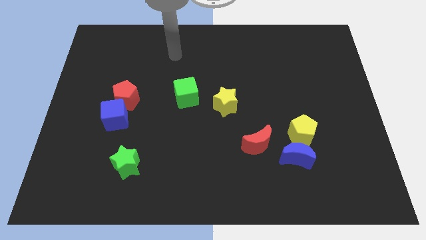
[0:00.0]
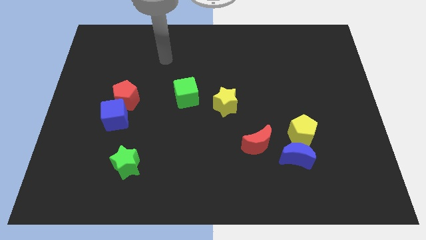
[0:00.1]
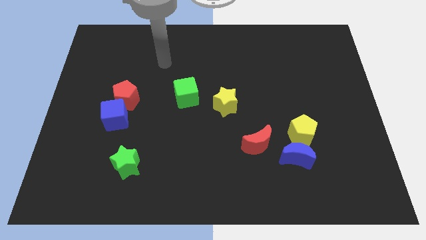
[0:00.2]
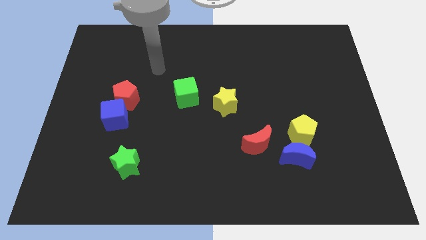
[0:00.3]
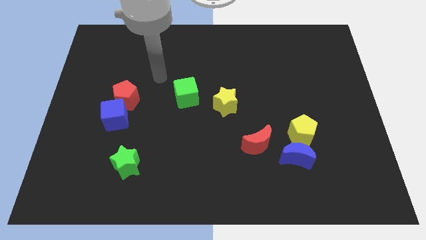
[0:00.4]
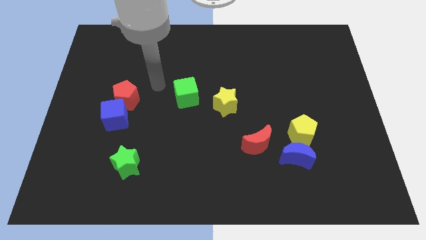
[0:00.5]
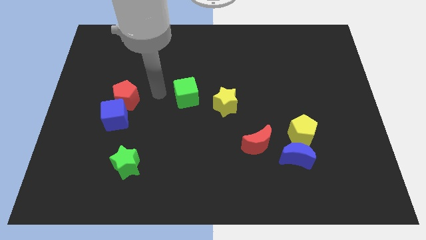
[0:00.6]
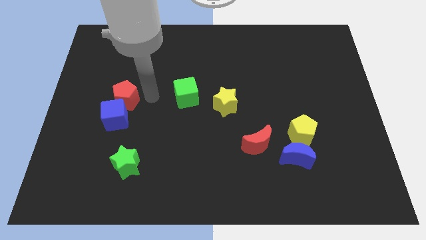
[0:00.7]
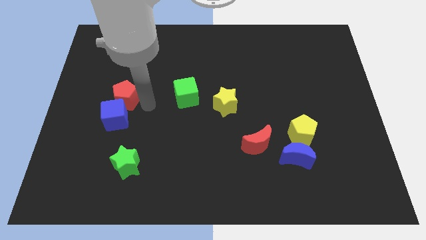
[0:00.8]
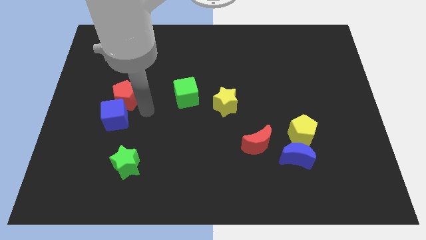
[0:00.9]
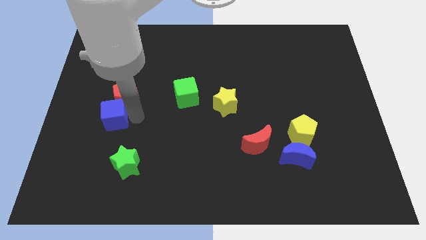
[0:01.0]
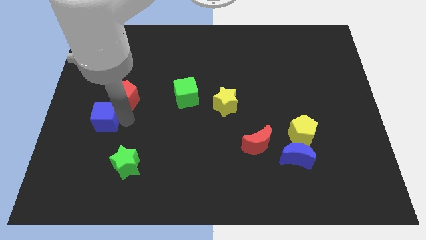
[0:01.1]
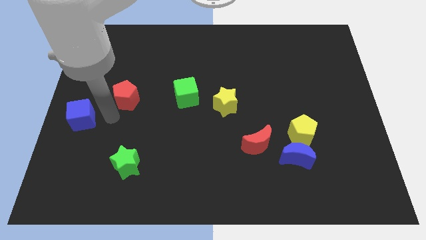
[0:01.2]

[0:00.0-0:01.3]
move the red pentagon away from the blue cube

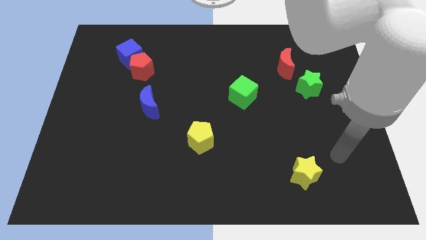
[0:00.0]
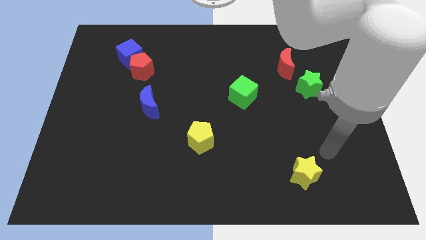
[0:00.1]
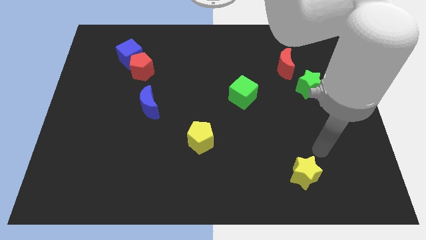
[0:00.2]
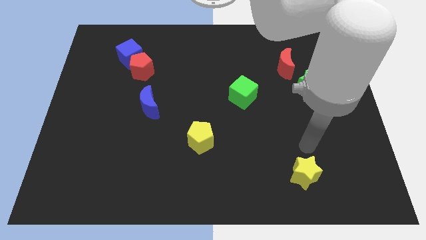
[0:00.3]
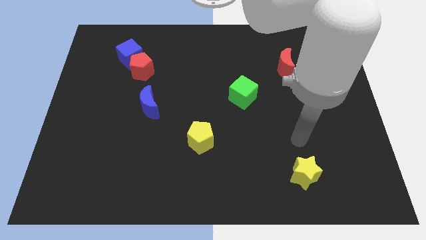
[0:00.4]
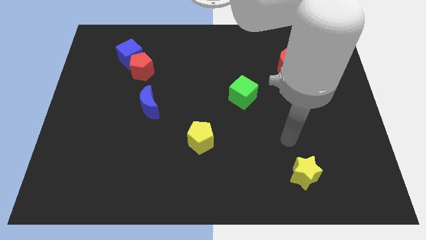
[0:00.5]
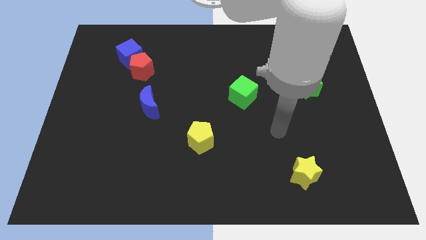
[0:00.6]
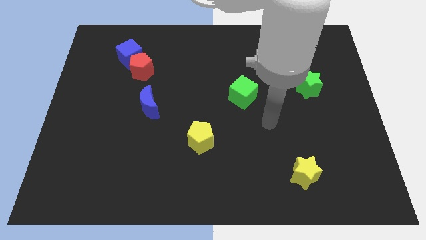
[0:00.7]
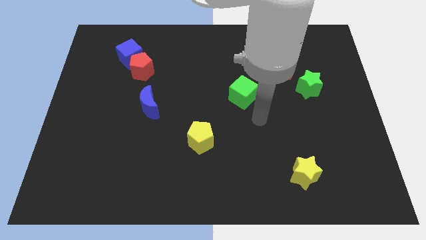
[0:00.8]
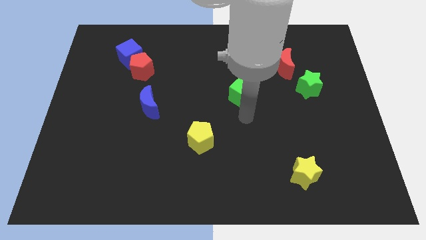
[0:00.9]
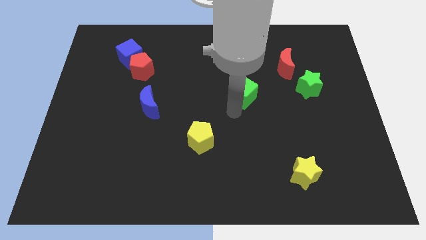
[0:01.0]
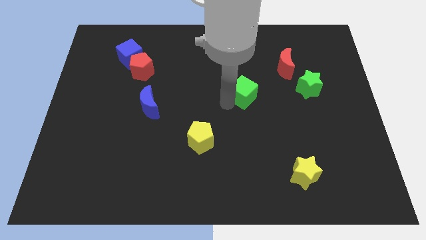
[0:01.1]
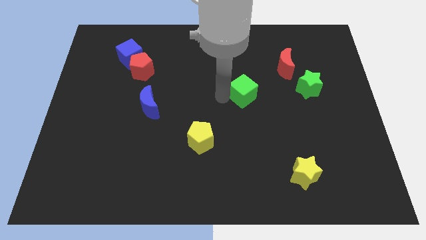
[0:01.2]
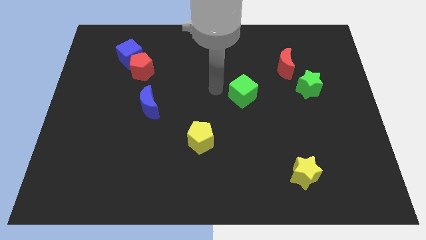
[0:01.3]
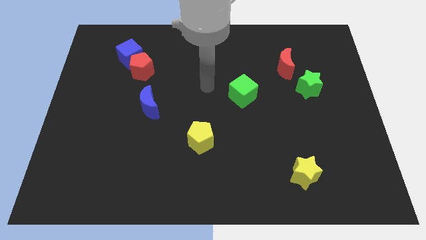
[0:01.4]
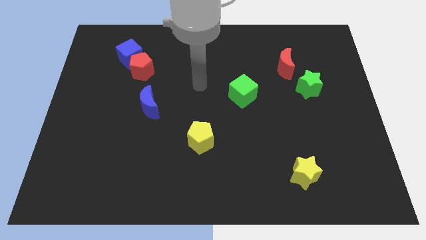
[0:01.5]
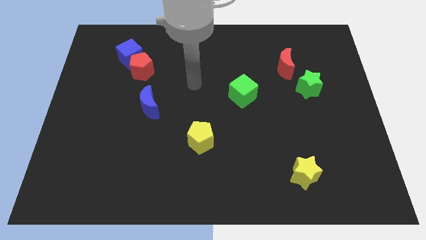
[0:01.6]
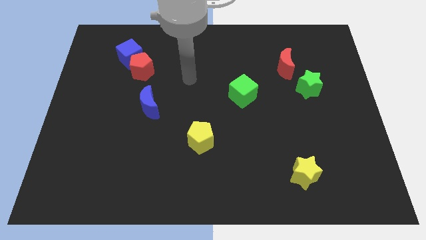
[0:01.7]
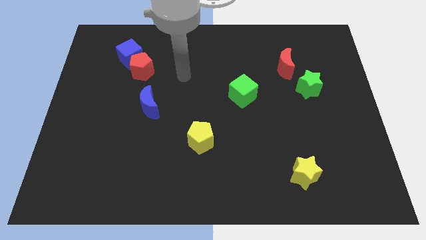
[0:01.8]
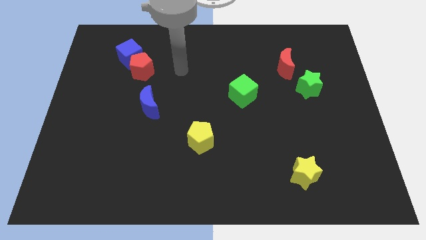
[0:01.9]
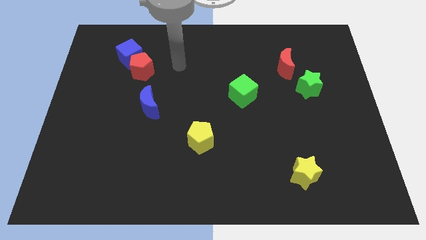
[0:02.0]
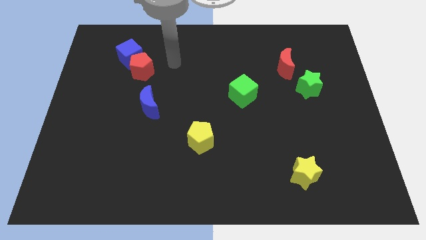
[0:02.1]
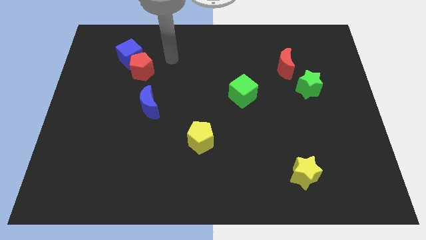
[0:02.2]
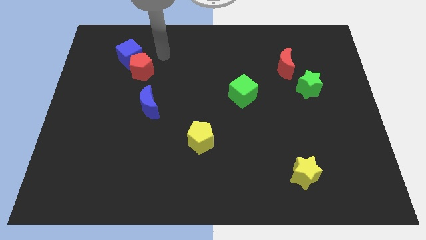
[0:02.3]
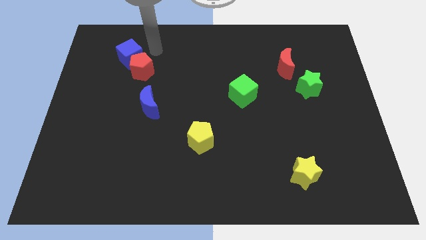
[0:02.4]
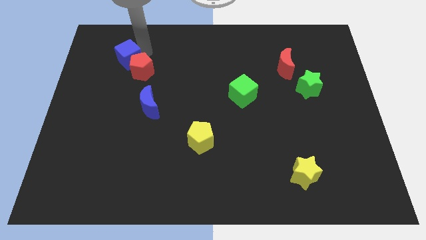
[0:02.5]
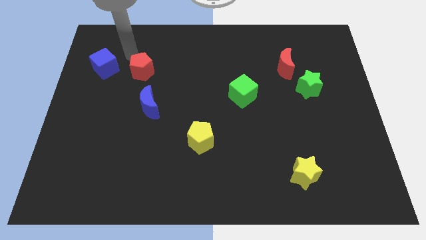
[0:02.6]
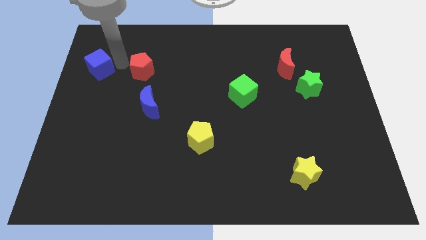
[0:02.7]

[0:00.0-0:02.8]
separate the red pentagon from the blue cube

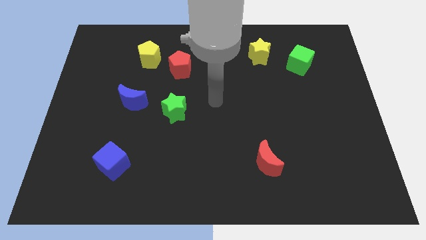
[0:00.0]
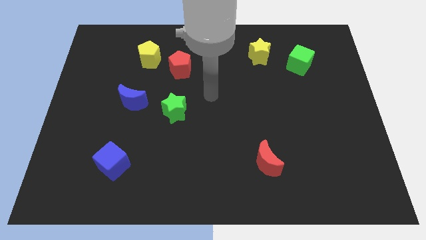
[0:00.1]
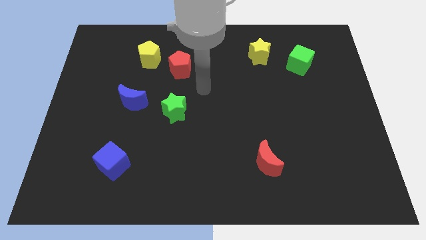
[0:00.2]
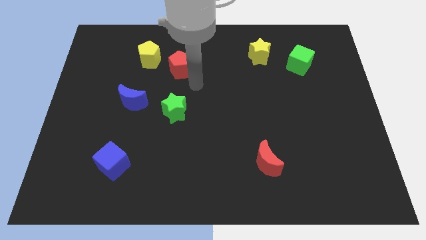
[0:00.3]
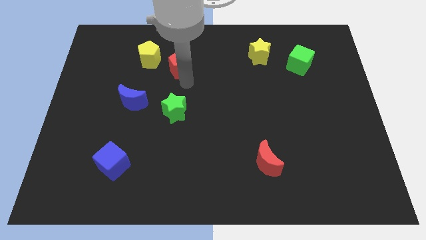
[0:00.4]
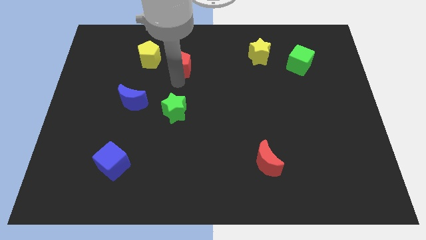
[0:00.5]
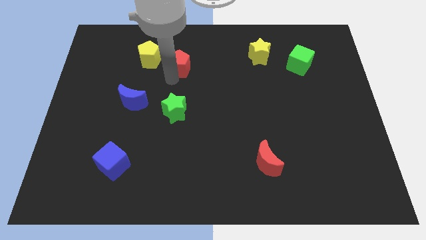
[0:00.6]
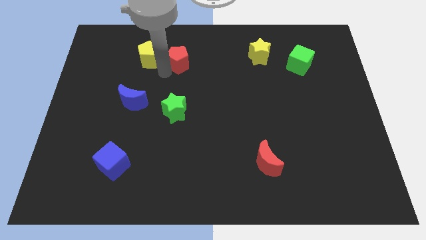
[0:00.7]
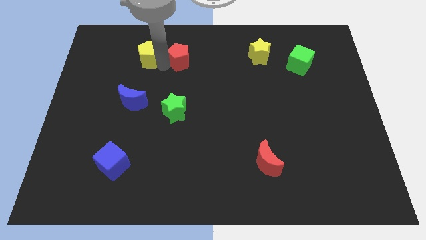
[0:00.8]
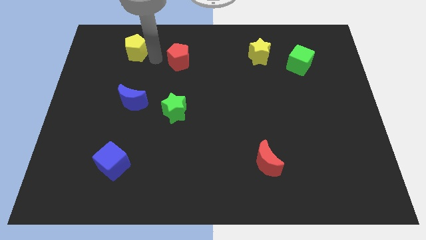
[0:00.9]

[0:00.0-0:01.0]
separate the red pentagon from the yellow pentagon

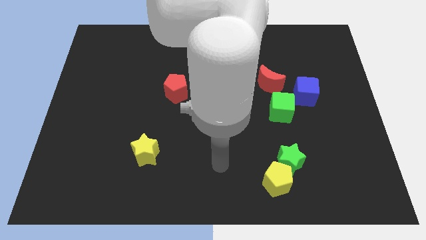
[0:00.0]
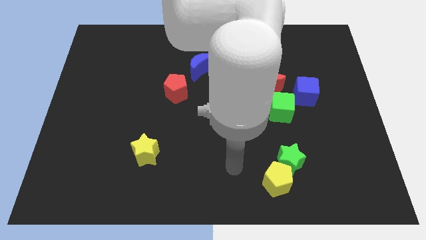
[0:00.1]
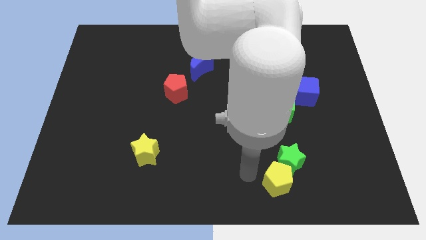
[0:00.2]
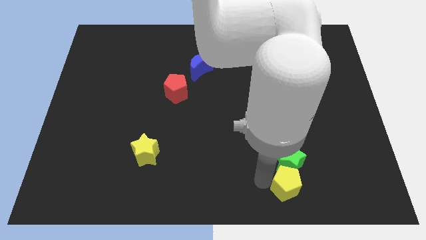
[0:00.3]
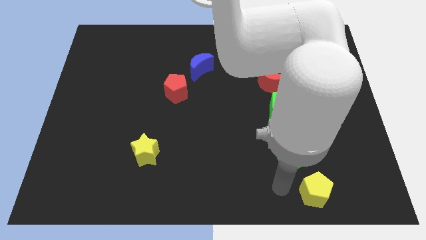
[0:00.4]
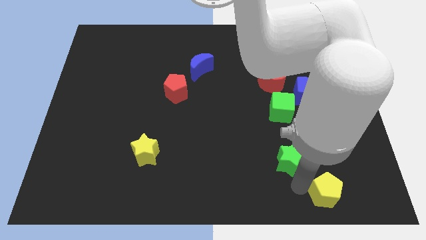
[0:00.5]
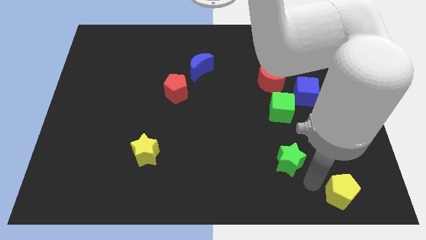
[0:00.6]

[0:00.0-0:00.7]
separate the green star from the yellow pentagon

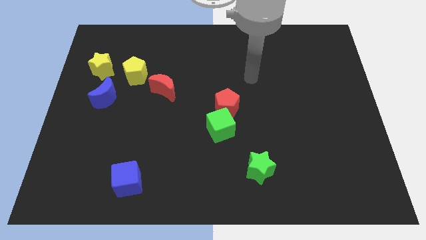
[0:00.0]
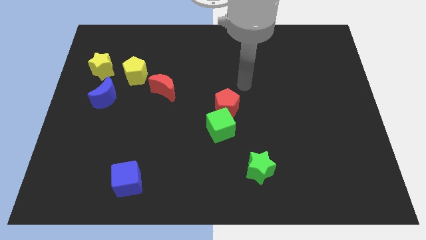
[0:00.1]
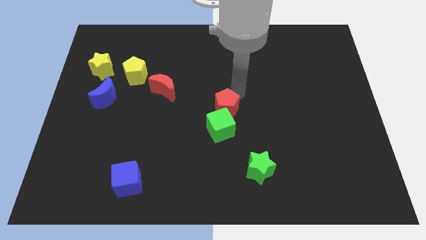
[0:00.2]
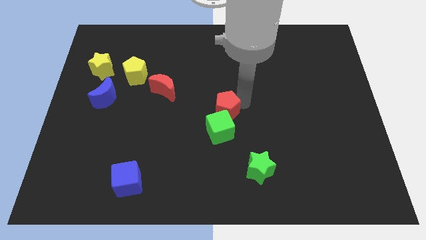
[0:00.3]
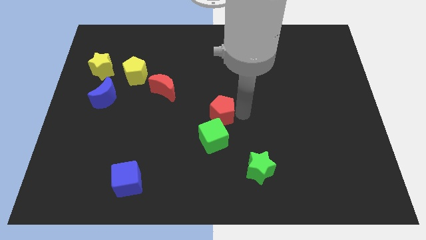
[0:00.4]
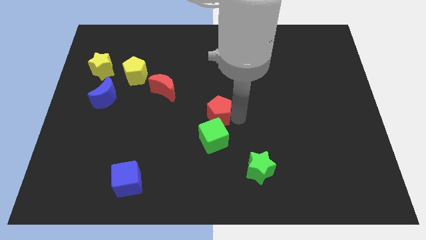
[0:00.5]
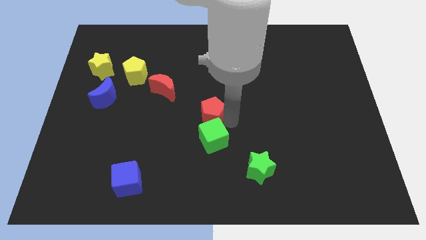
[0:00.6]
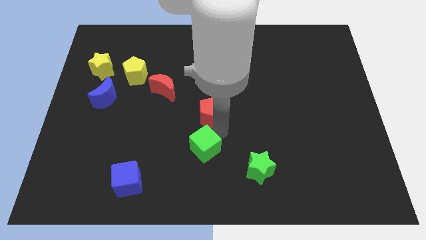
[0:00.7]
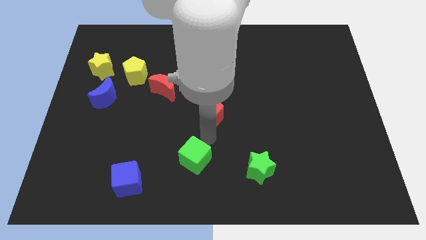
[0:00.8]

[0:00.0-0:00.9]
pull the red pentagon apart from the green cube

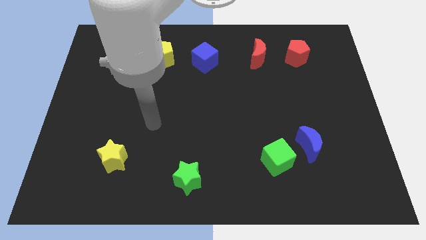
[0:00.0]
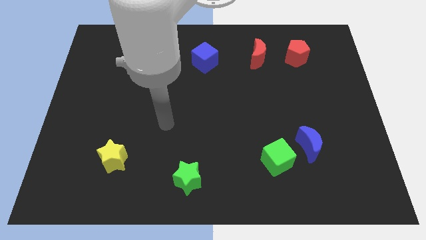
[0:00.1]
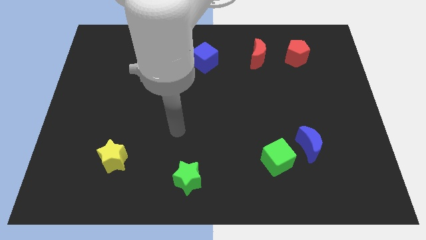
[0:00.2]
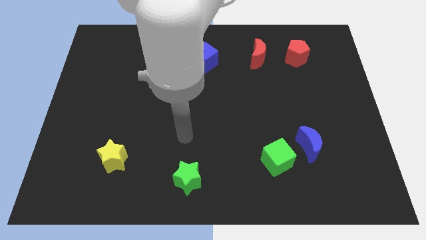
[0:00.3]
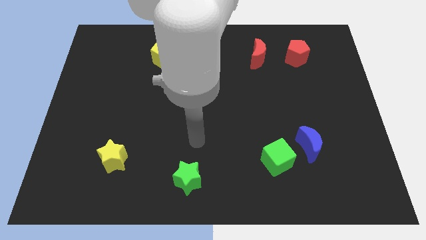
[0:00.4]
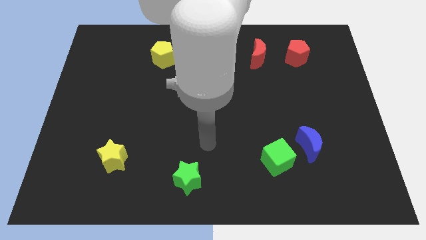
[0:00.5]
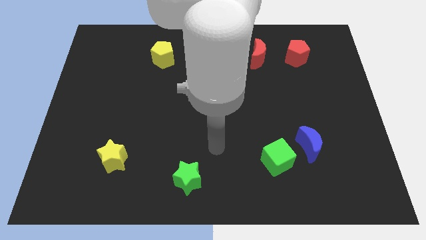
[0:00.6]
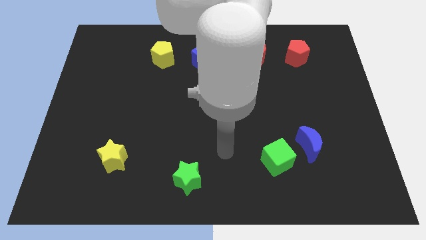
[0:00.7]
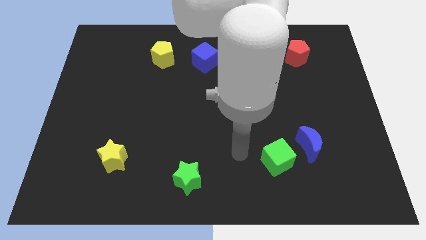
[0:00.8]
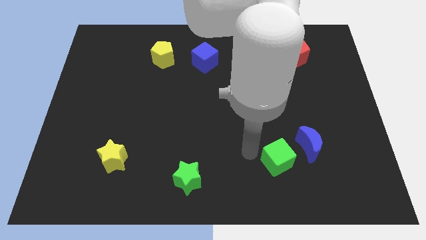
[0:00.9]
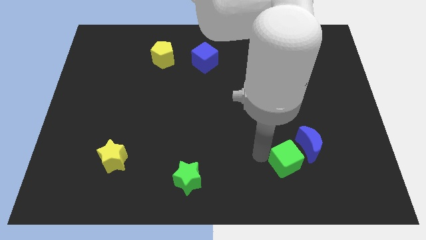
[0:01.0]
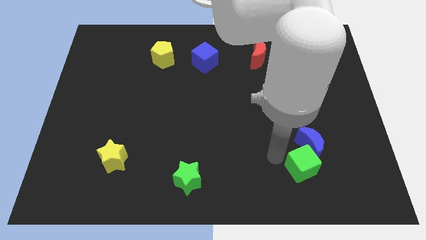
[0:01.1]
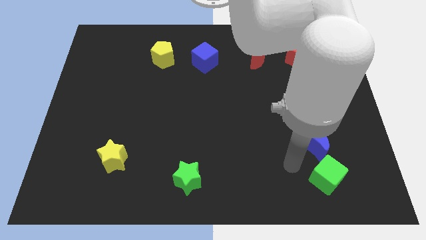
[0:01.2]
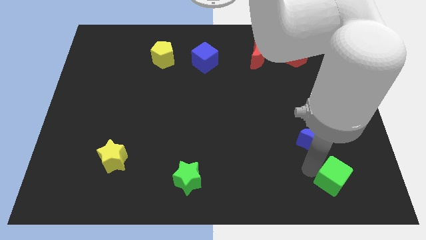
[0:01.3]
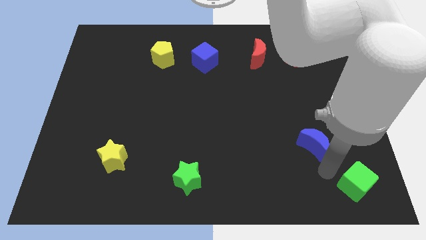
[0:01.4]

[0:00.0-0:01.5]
pull the blue moon apart from the green cube

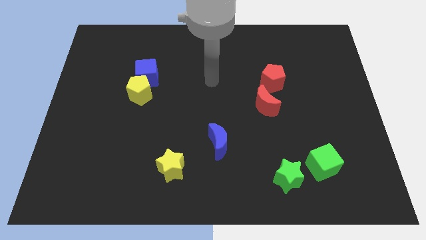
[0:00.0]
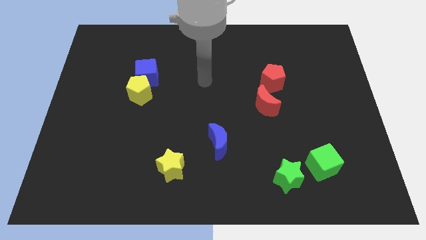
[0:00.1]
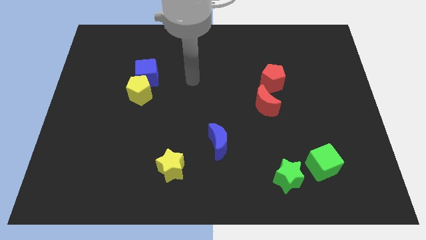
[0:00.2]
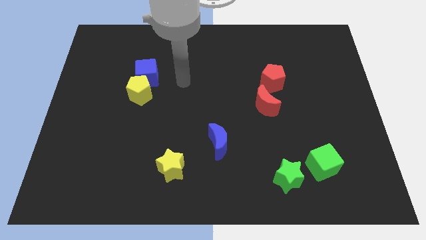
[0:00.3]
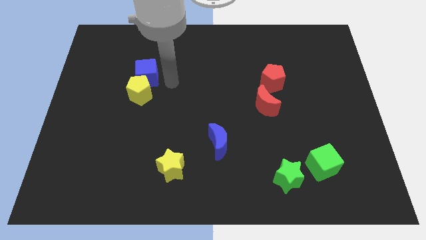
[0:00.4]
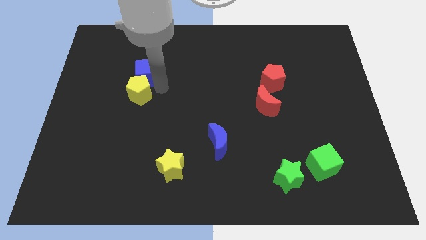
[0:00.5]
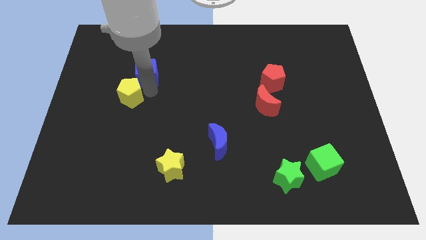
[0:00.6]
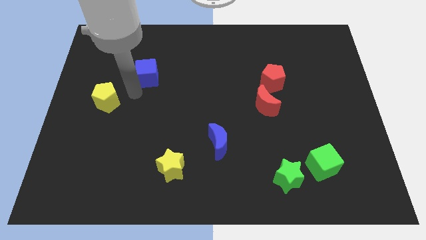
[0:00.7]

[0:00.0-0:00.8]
pull the blue cube apart from the yellow pentagon

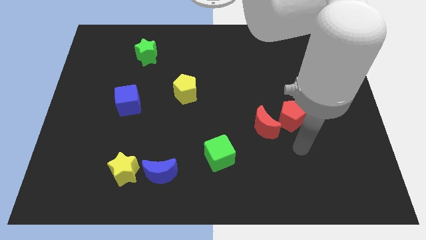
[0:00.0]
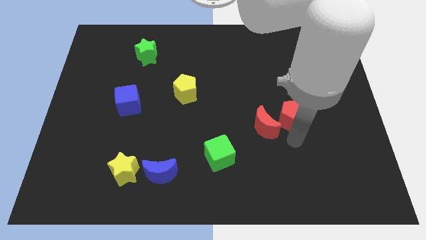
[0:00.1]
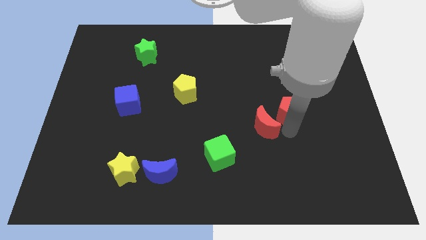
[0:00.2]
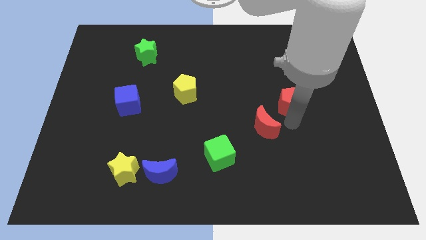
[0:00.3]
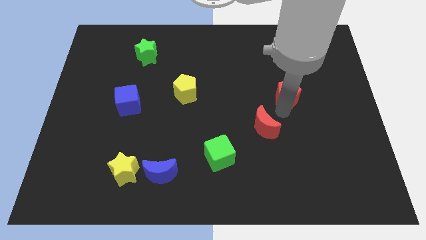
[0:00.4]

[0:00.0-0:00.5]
move the red moon away from the red pentagon
